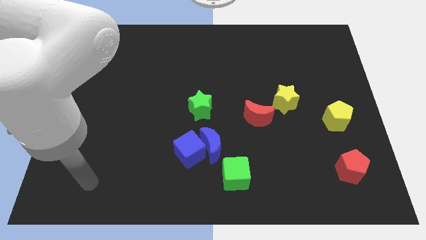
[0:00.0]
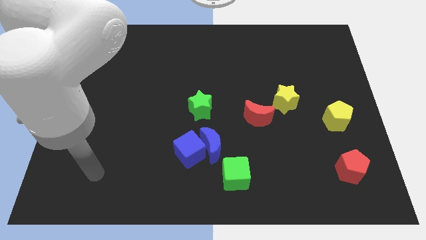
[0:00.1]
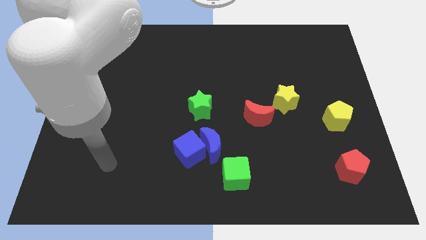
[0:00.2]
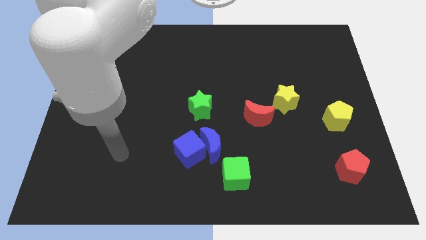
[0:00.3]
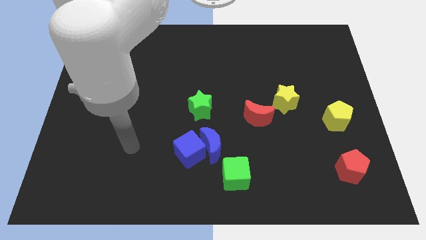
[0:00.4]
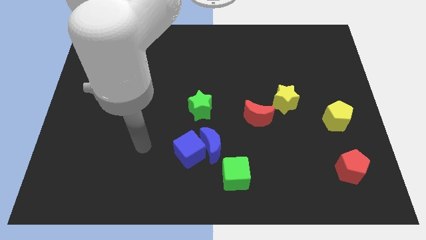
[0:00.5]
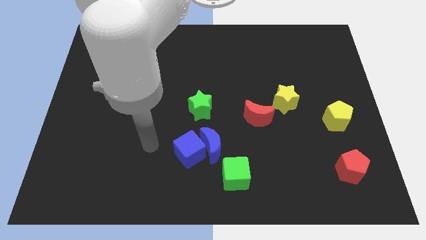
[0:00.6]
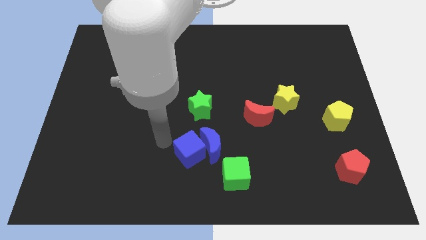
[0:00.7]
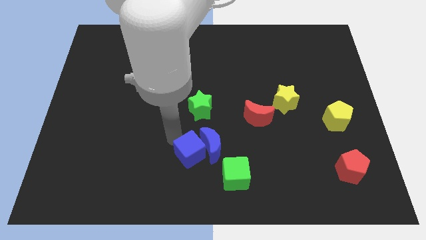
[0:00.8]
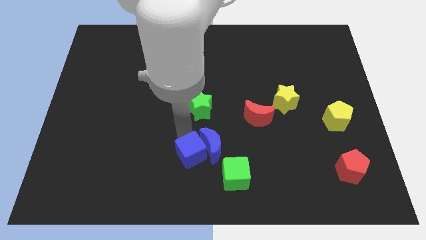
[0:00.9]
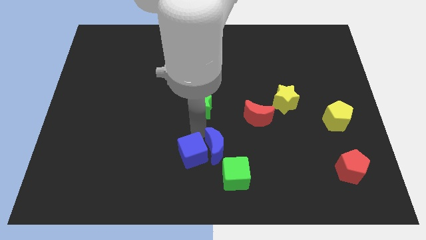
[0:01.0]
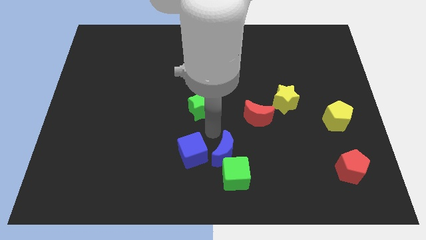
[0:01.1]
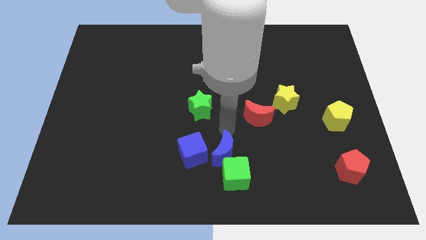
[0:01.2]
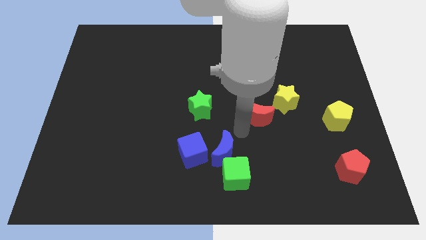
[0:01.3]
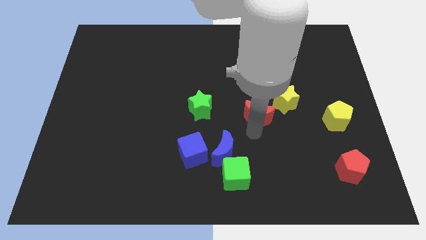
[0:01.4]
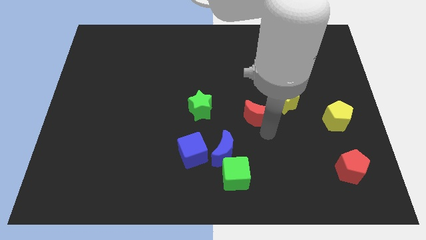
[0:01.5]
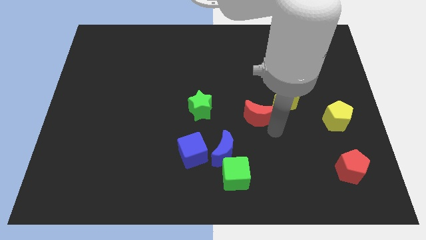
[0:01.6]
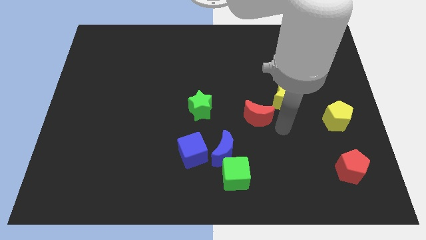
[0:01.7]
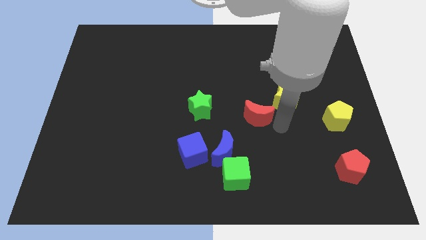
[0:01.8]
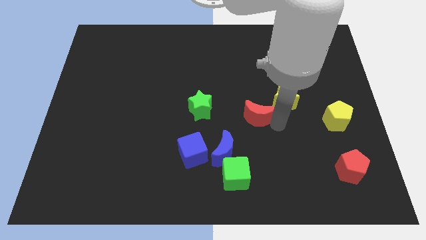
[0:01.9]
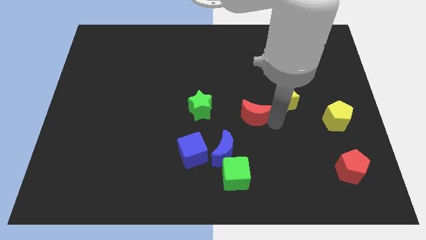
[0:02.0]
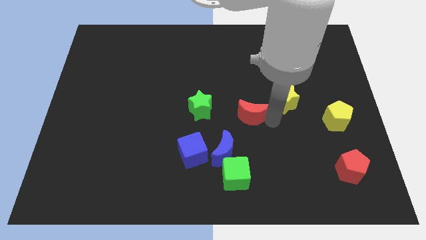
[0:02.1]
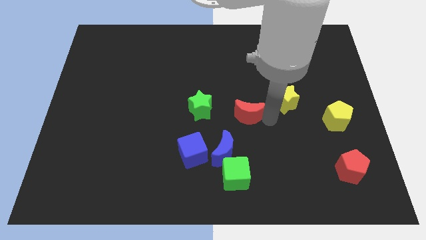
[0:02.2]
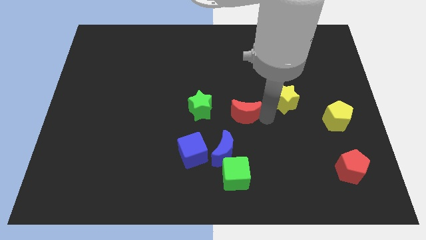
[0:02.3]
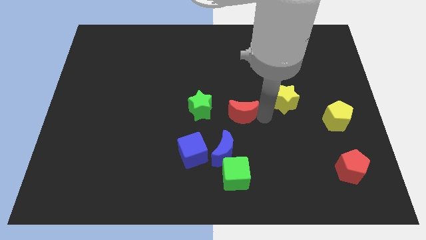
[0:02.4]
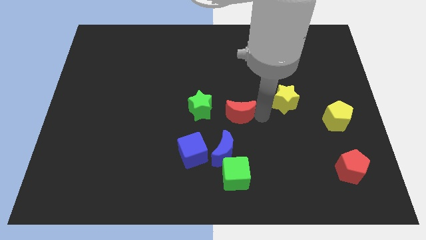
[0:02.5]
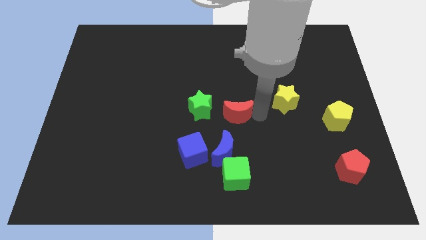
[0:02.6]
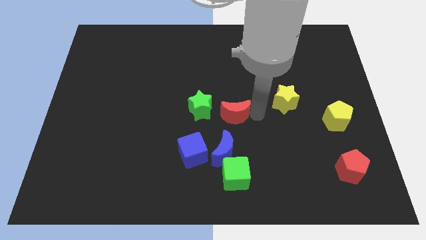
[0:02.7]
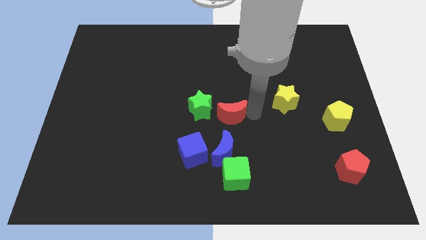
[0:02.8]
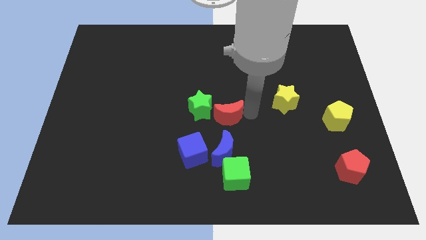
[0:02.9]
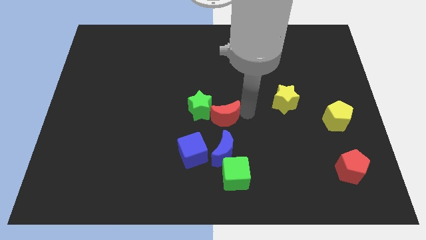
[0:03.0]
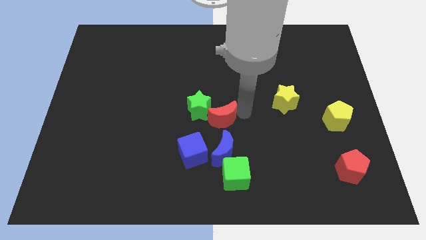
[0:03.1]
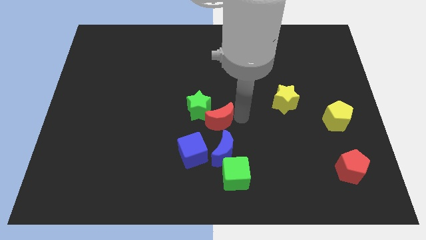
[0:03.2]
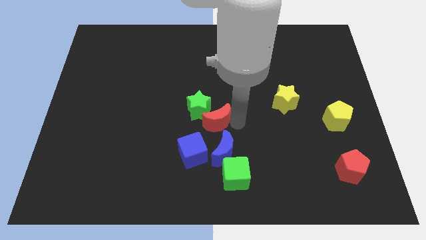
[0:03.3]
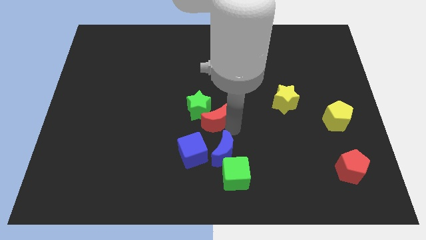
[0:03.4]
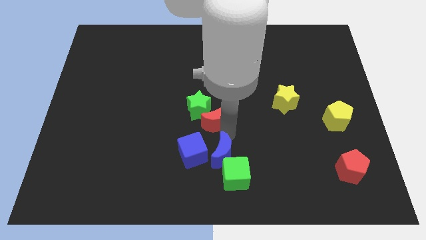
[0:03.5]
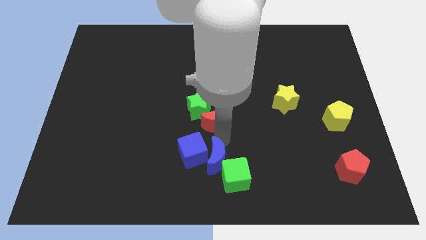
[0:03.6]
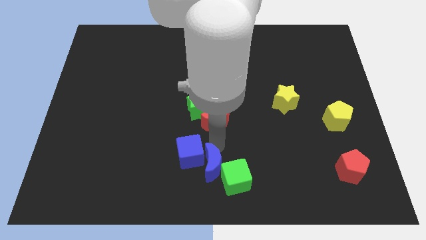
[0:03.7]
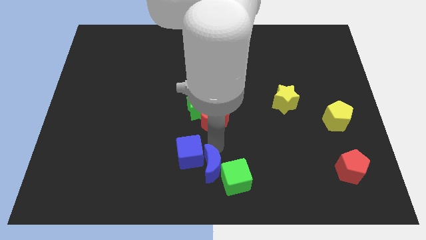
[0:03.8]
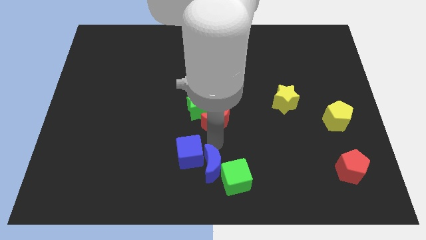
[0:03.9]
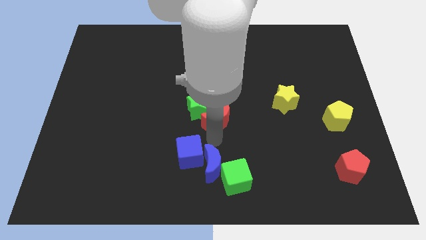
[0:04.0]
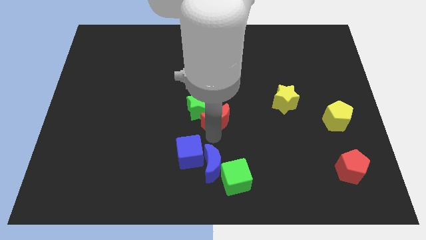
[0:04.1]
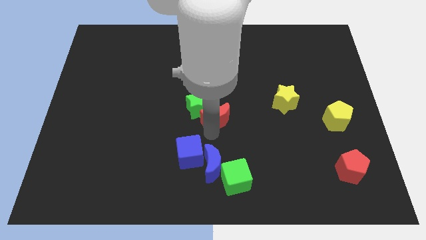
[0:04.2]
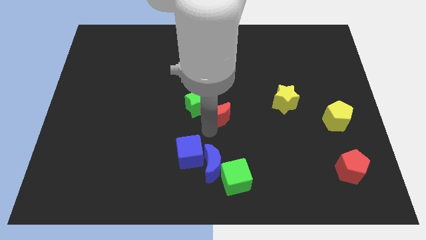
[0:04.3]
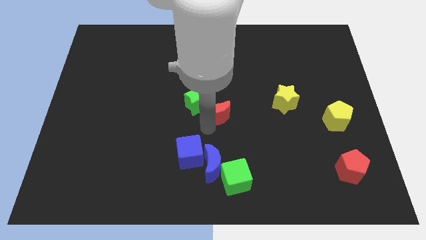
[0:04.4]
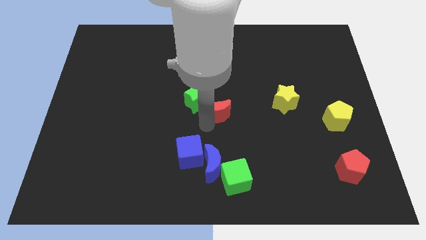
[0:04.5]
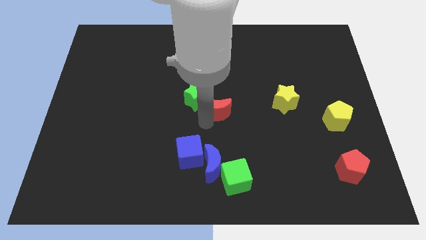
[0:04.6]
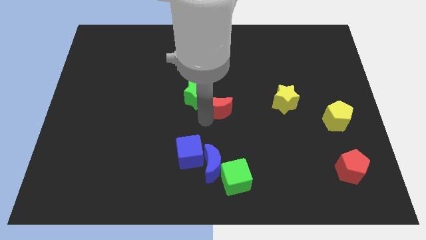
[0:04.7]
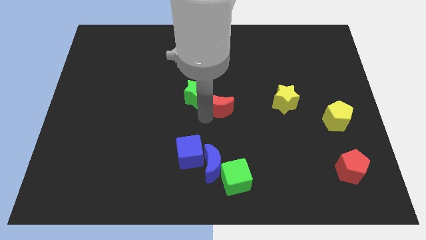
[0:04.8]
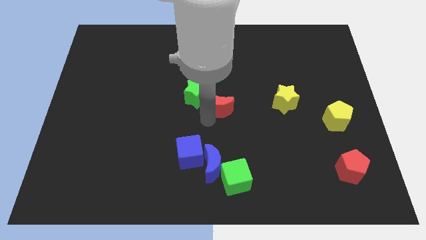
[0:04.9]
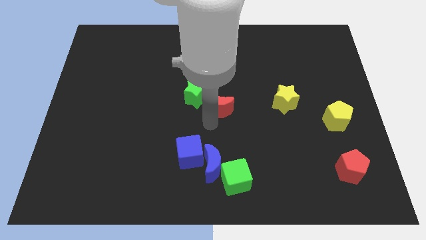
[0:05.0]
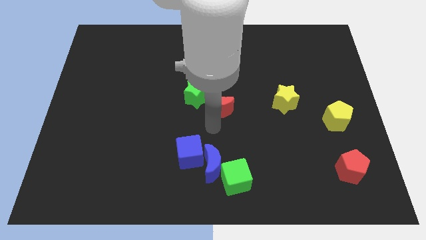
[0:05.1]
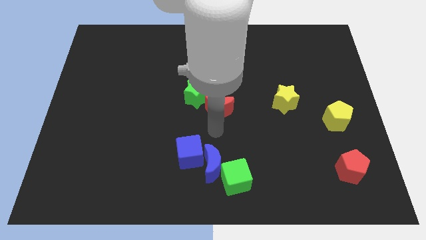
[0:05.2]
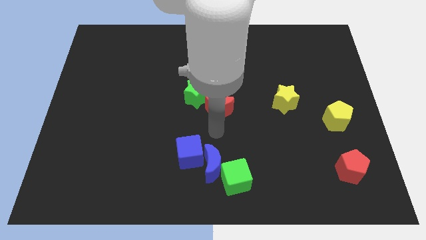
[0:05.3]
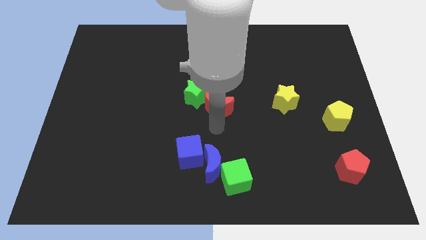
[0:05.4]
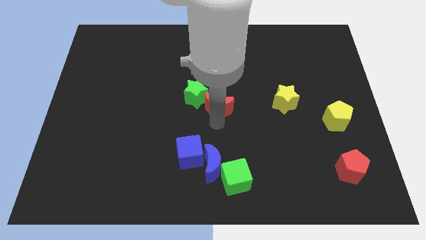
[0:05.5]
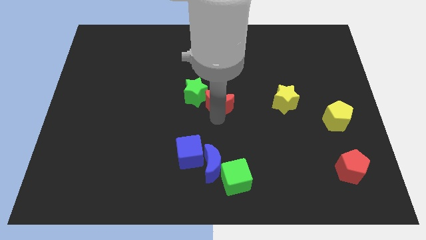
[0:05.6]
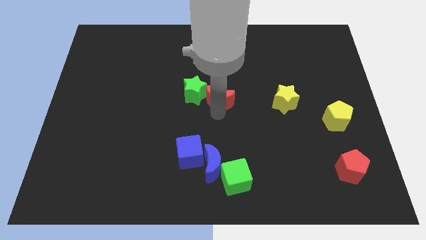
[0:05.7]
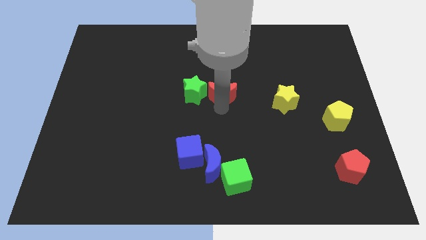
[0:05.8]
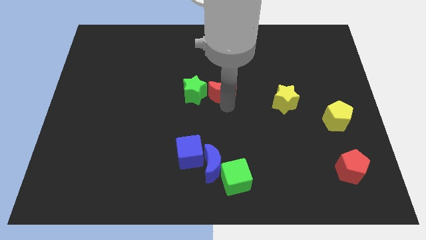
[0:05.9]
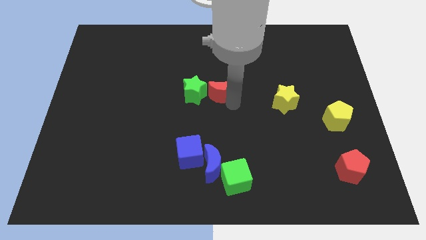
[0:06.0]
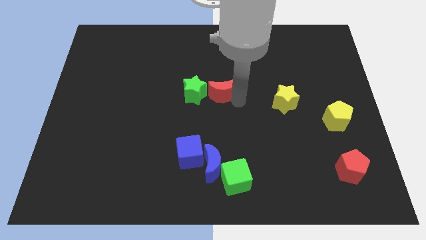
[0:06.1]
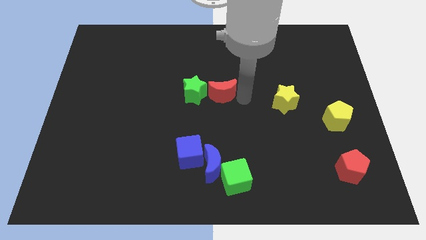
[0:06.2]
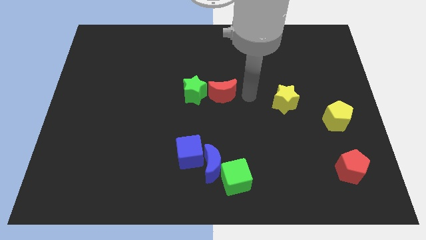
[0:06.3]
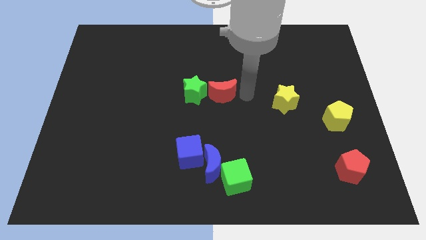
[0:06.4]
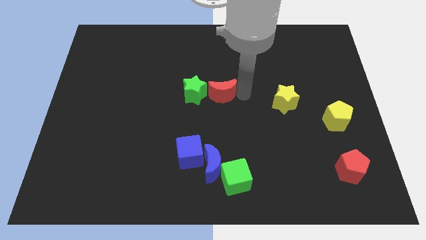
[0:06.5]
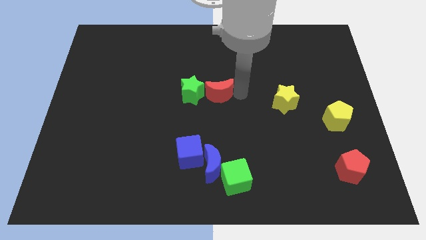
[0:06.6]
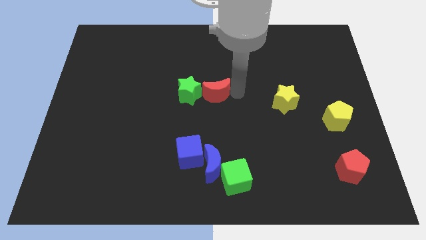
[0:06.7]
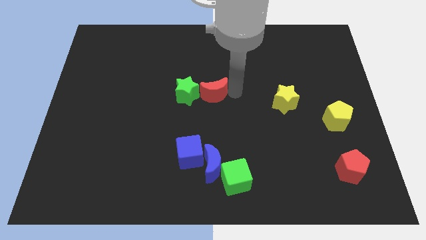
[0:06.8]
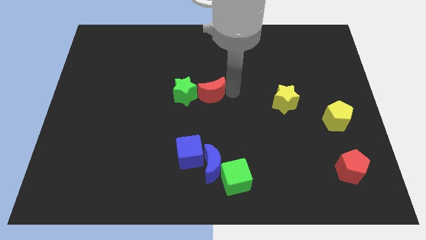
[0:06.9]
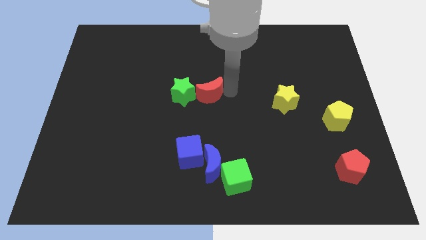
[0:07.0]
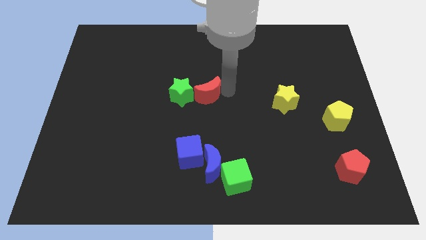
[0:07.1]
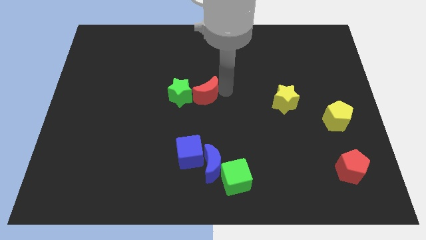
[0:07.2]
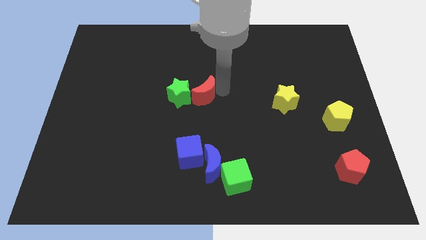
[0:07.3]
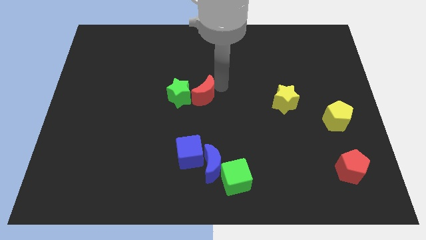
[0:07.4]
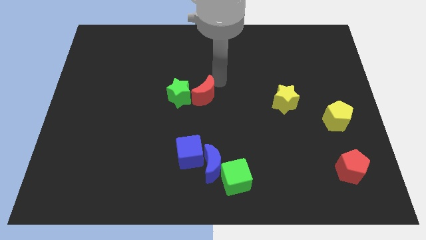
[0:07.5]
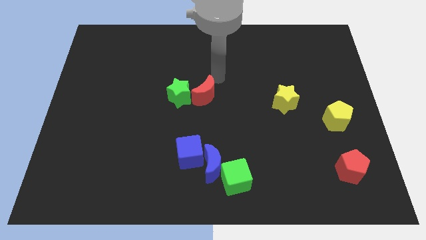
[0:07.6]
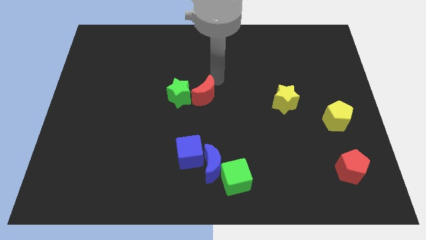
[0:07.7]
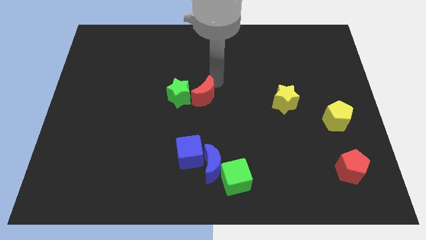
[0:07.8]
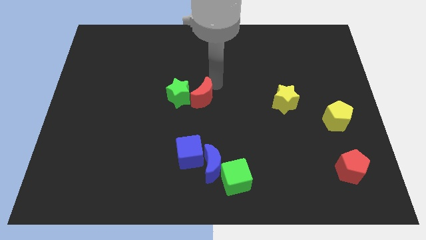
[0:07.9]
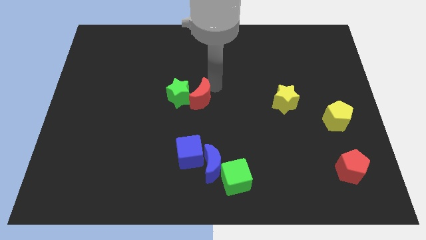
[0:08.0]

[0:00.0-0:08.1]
move the red moon to the top of the blue cube
